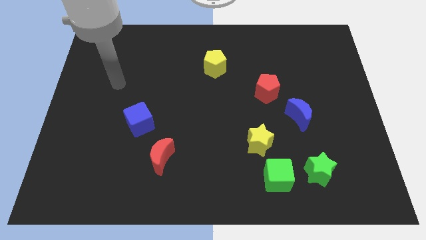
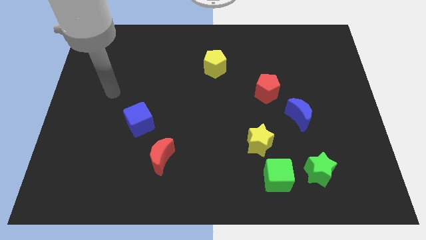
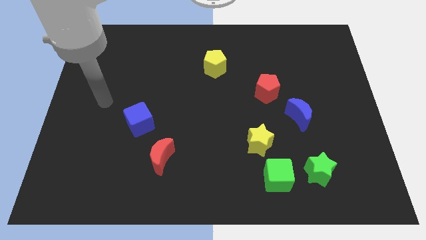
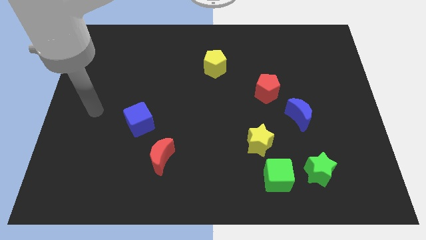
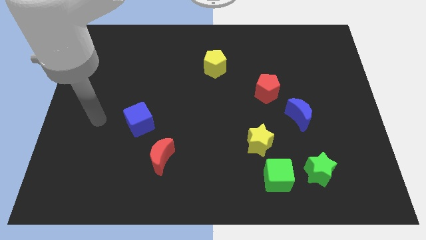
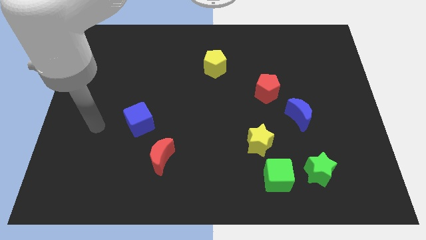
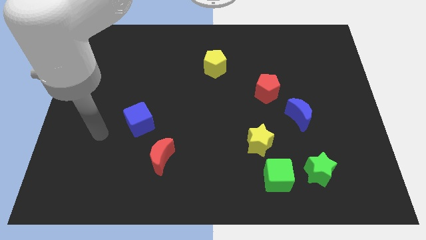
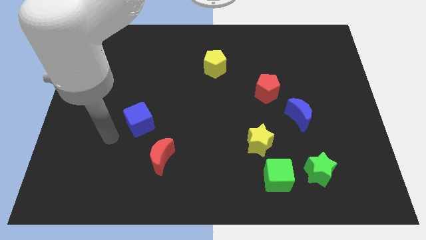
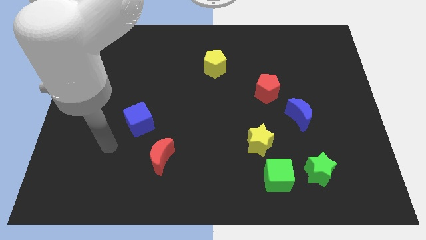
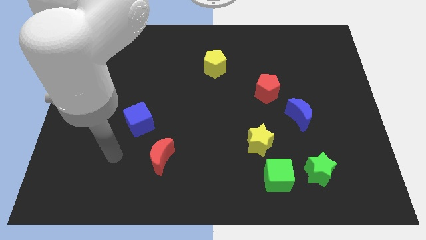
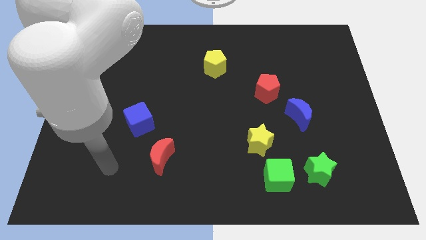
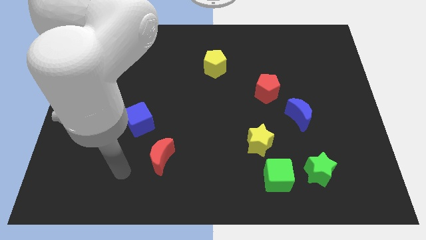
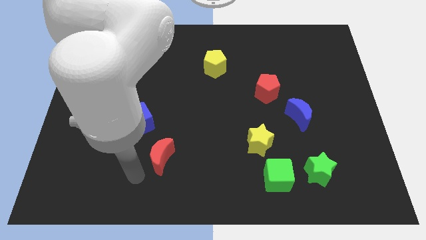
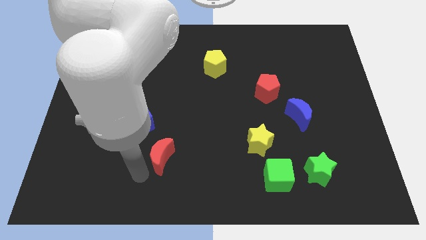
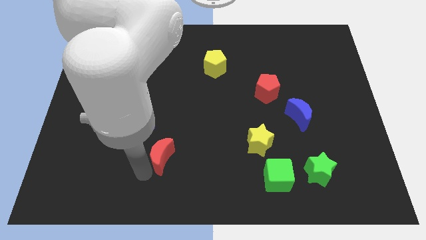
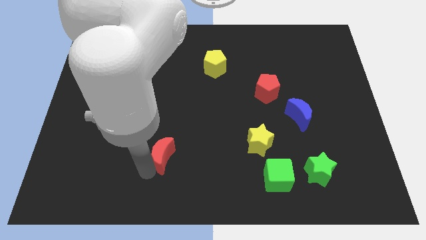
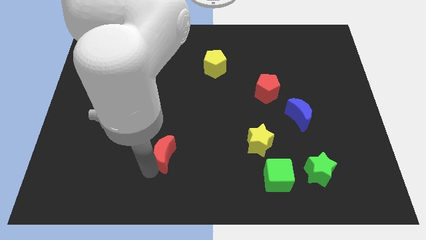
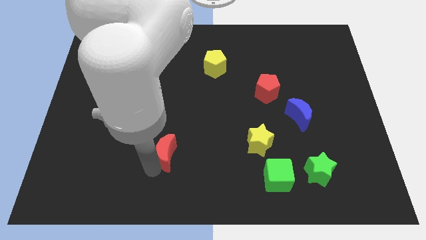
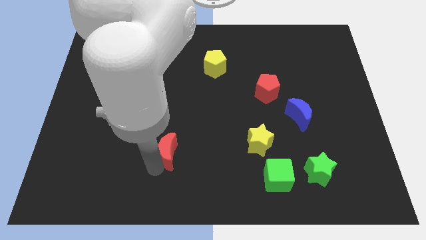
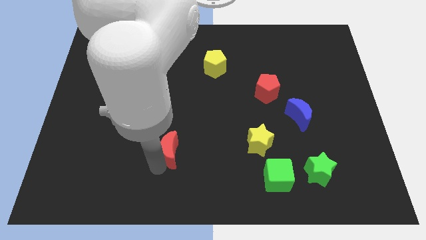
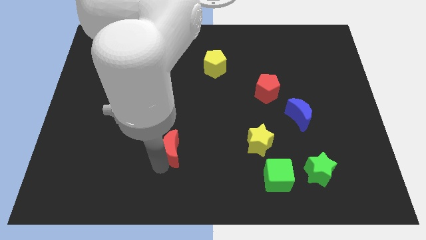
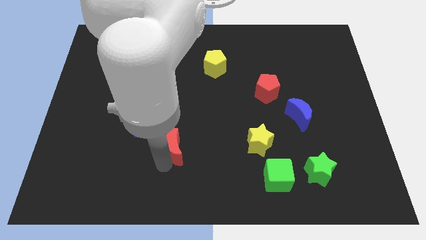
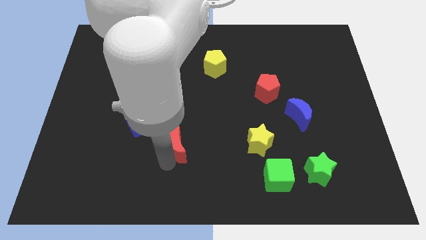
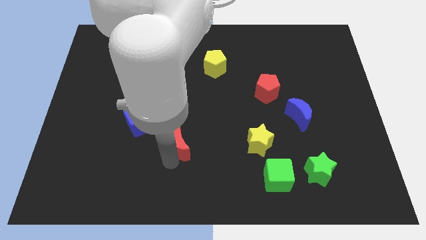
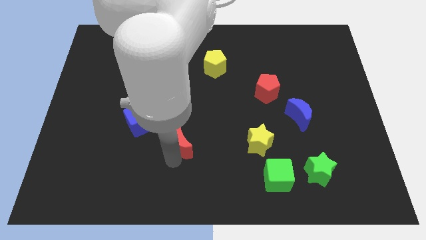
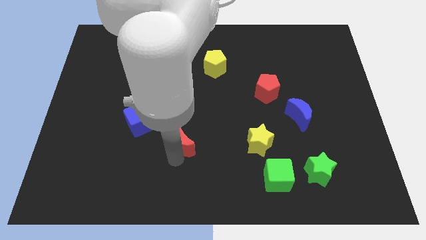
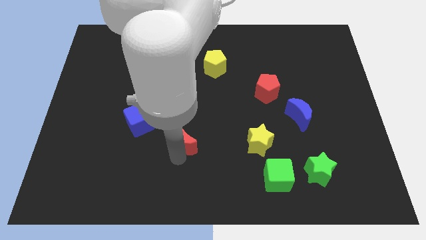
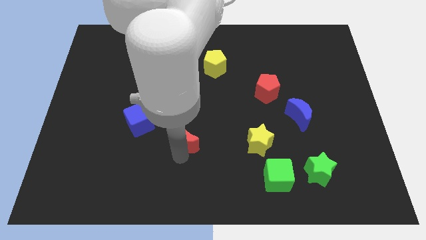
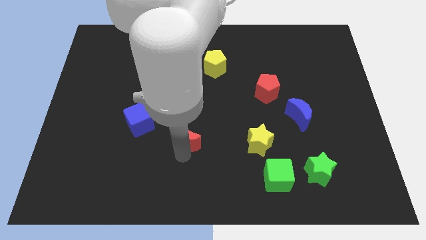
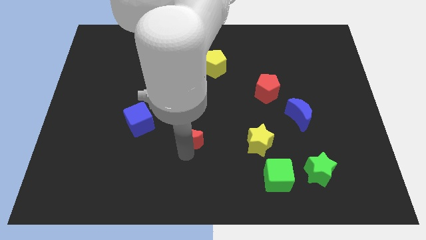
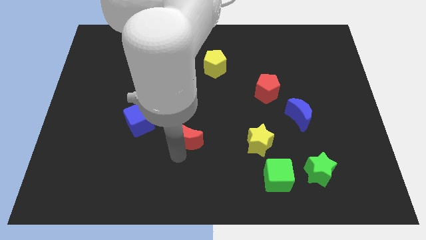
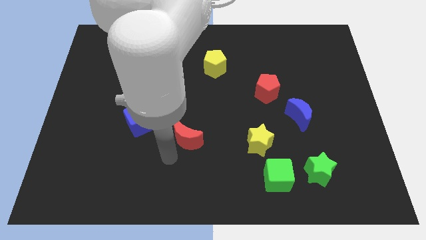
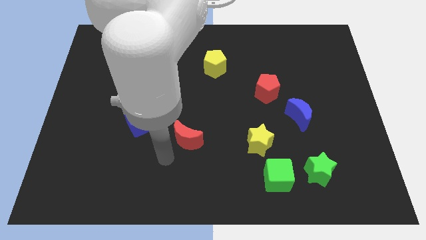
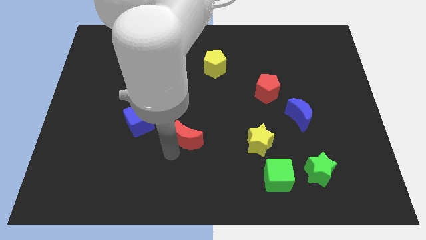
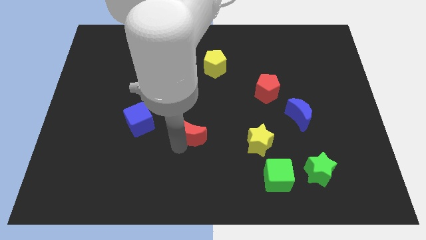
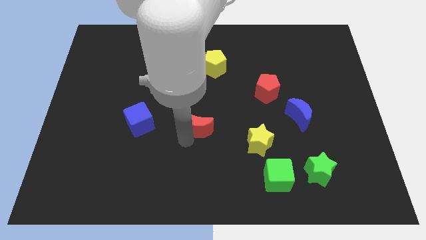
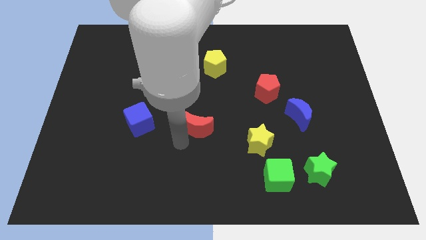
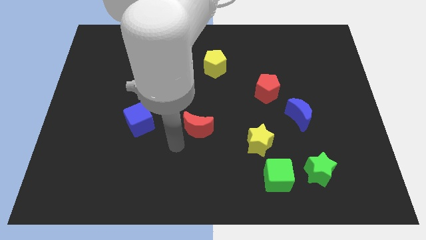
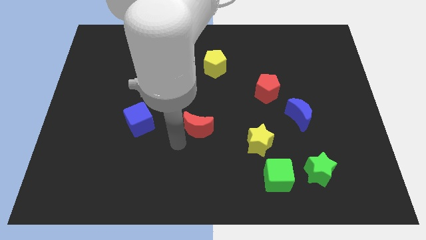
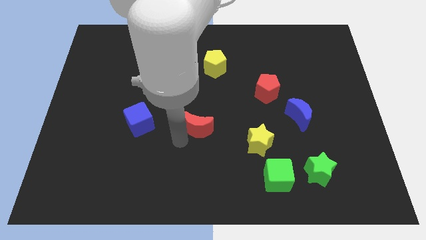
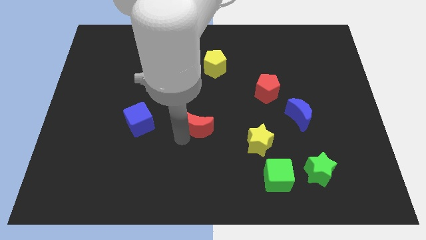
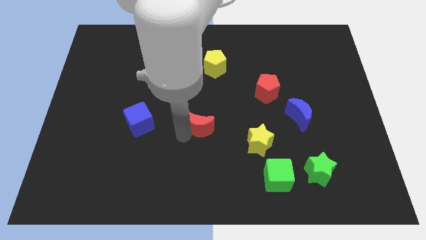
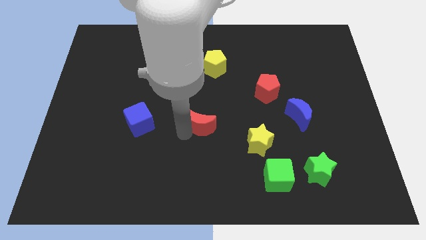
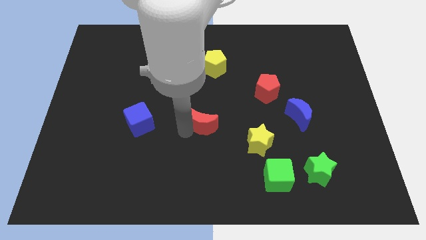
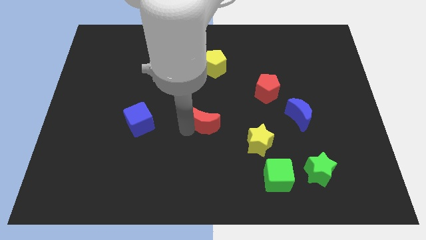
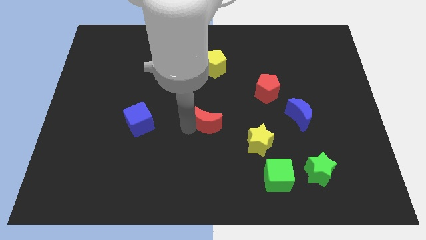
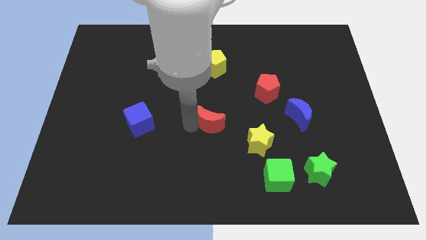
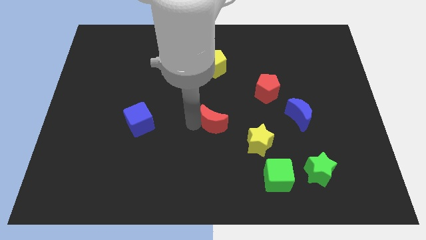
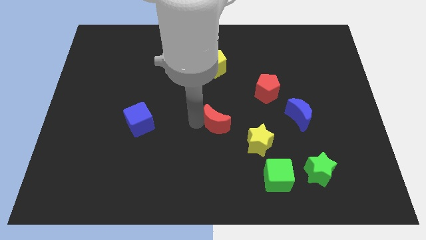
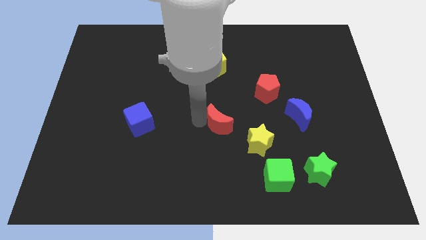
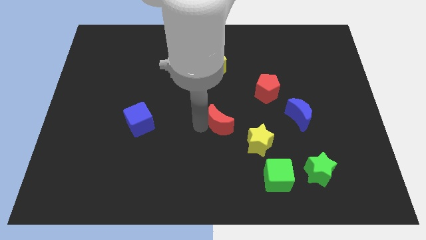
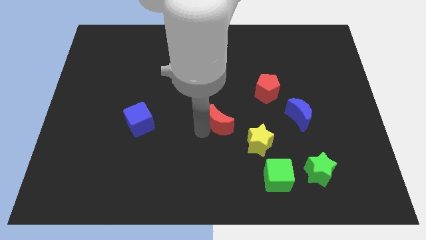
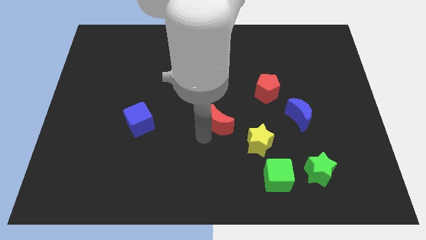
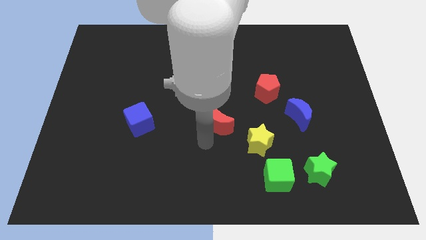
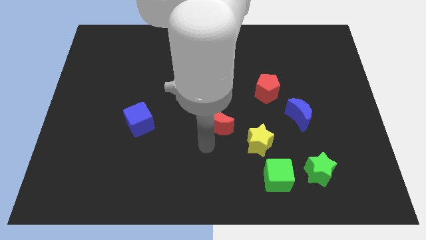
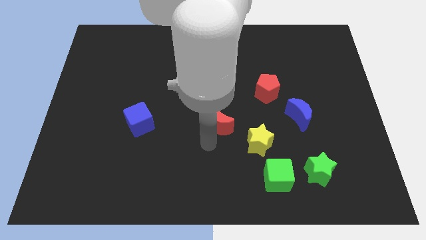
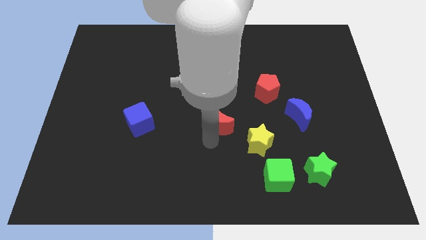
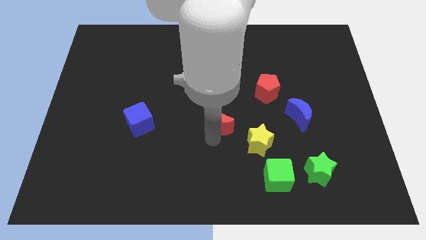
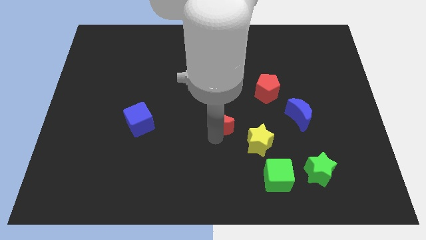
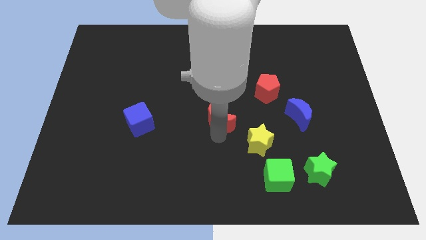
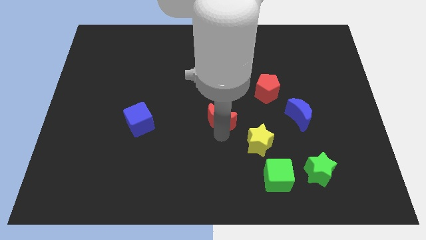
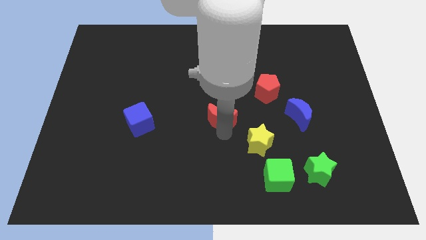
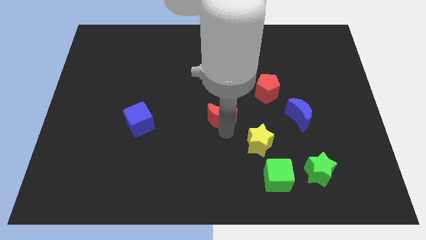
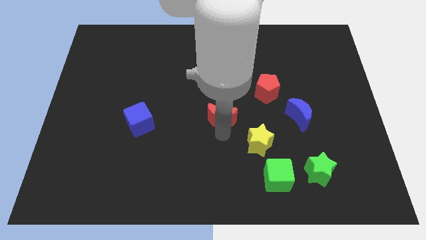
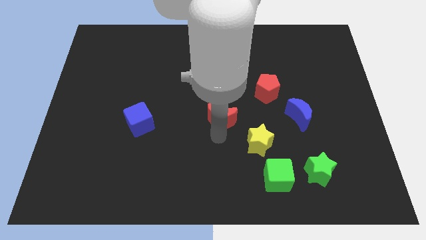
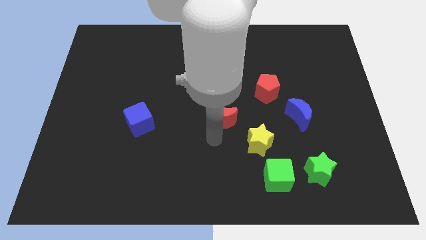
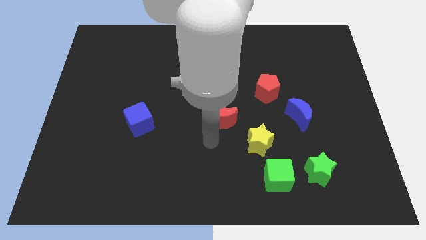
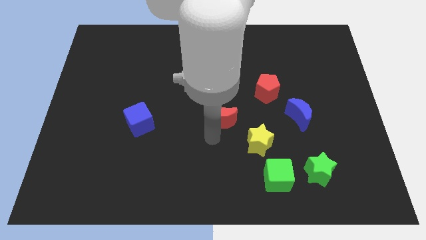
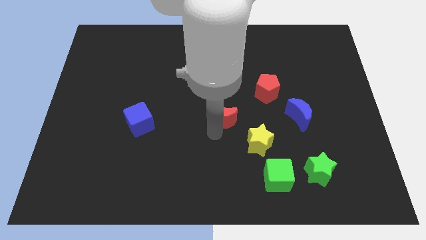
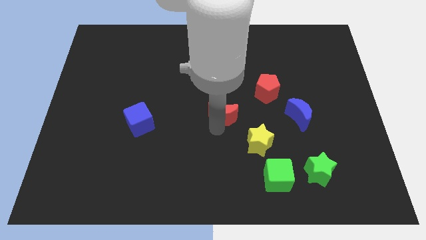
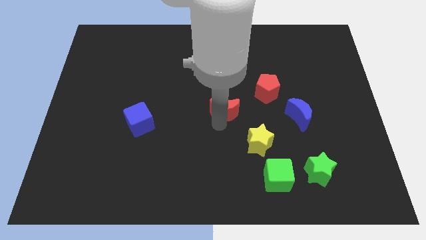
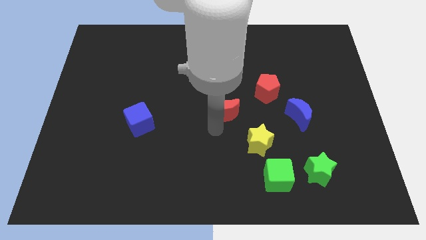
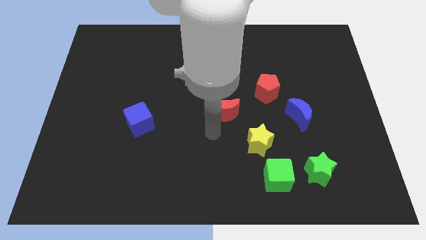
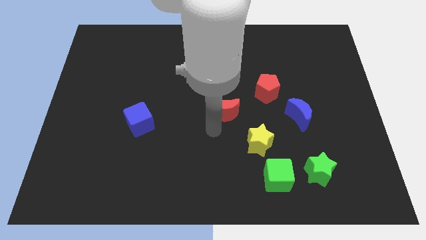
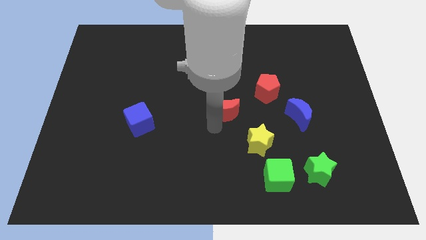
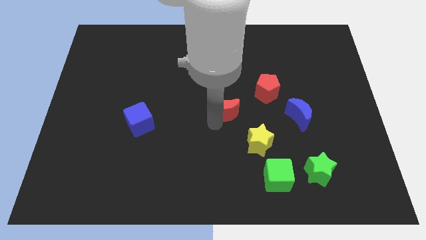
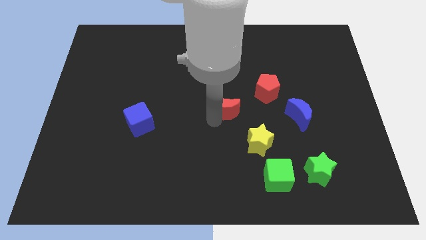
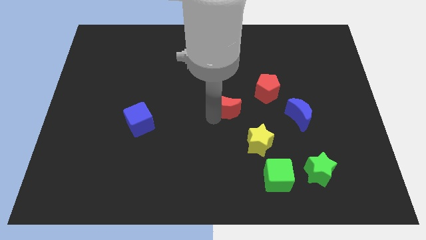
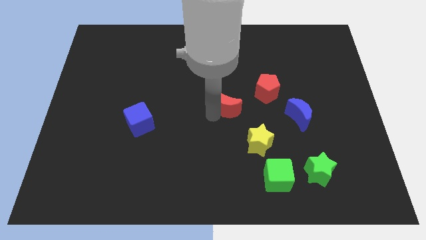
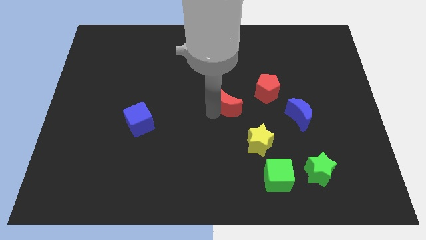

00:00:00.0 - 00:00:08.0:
slide the red moon up and to the right

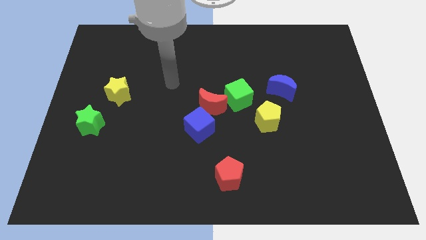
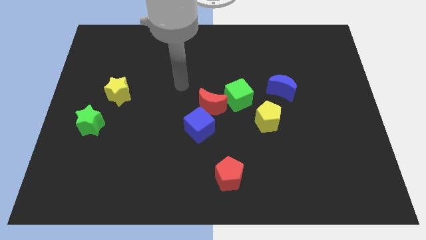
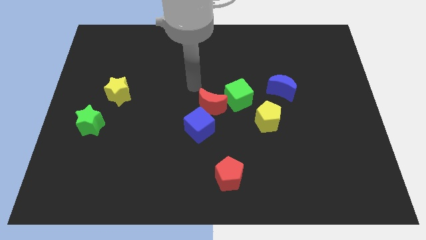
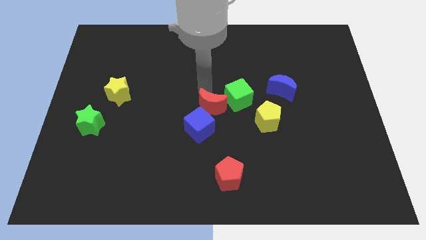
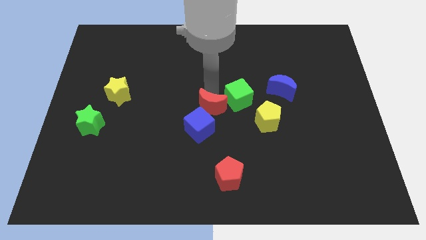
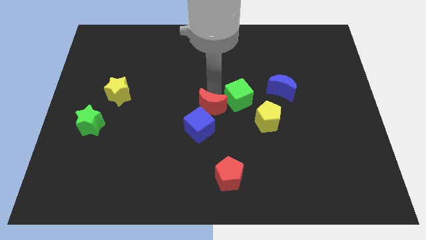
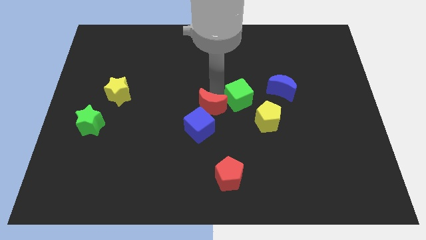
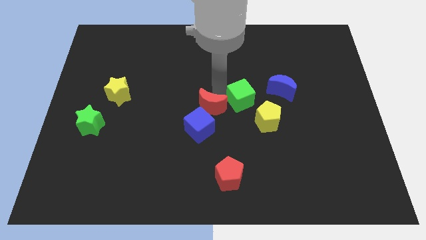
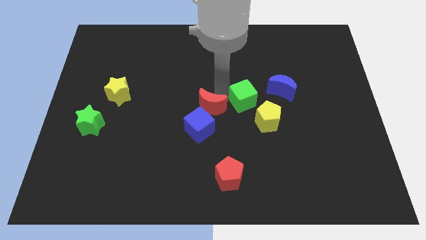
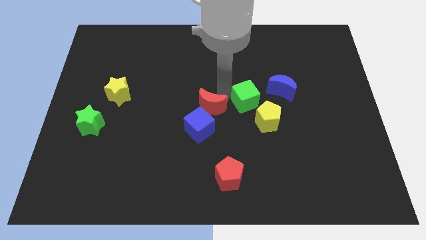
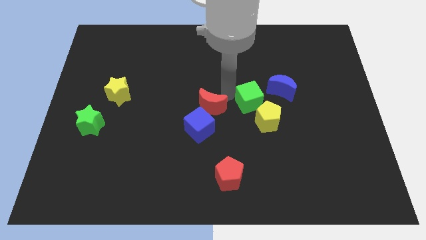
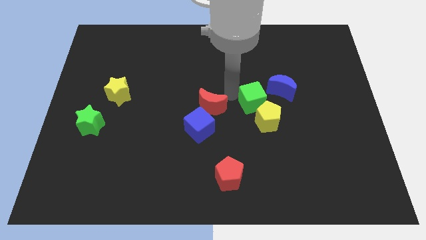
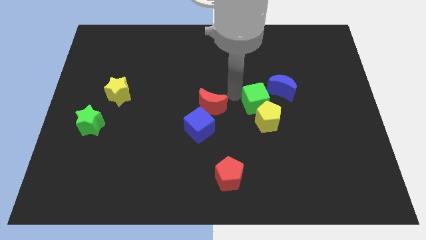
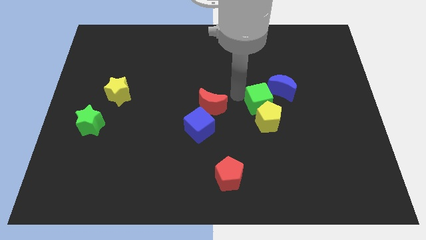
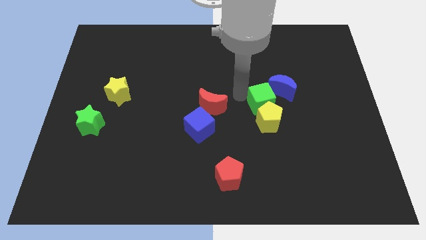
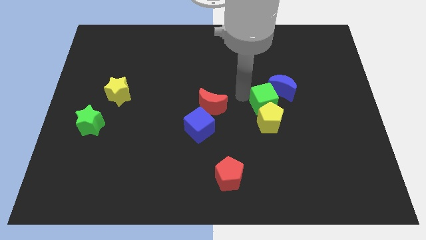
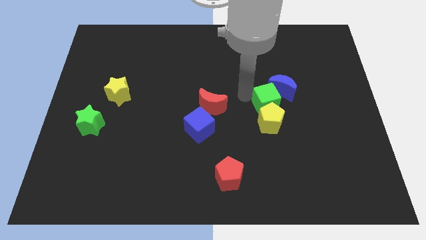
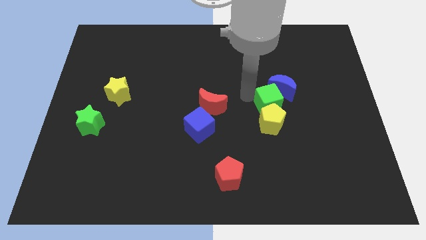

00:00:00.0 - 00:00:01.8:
move the green cube a bit to the right
